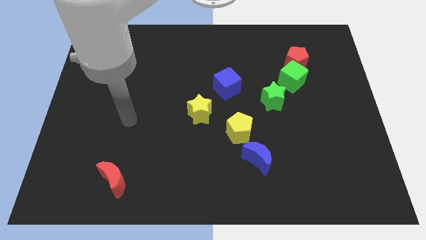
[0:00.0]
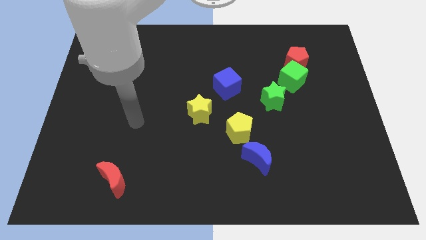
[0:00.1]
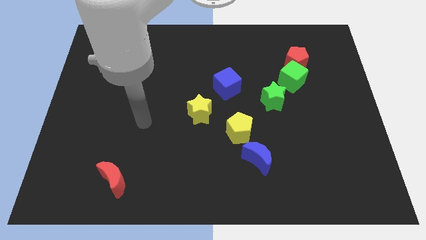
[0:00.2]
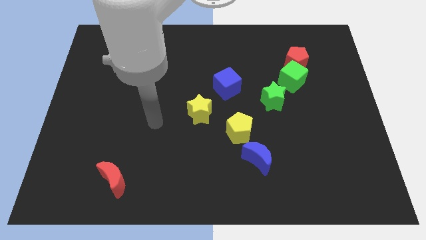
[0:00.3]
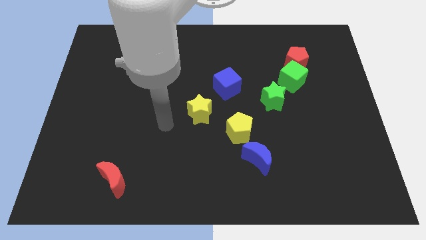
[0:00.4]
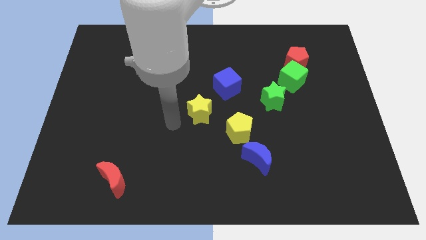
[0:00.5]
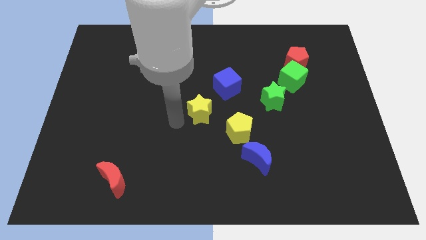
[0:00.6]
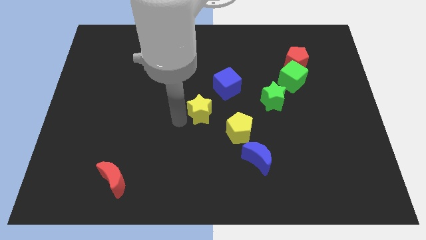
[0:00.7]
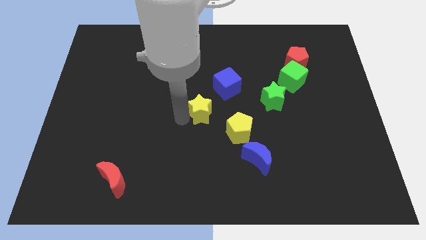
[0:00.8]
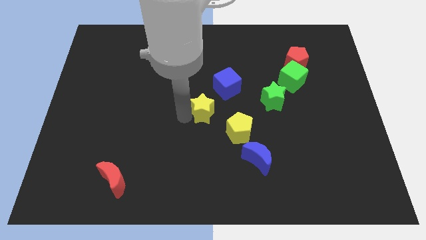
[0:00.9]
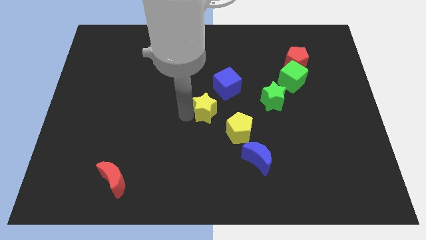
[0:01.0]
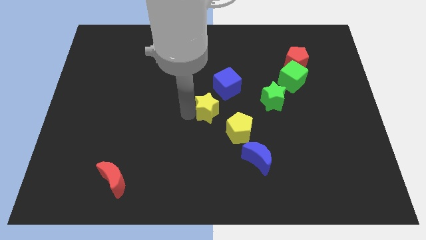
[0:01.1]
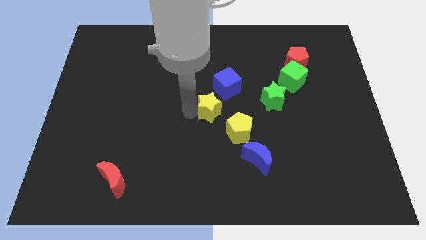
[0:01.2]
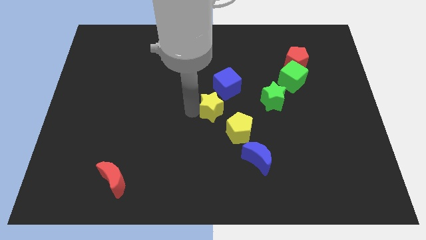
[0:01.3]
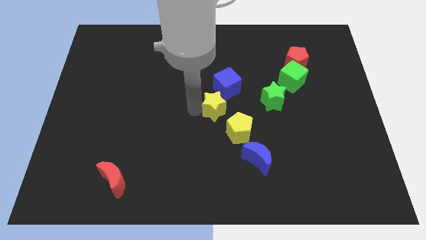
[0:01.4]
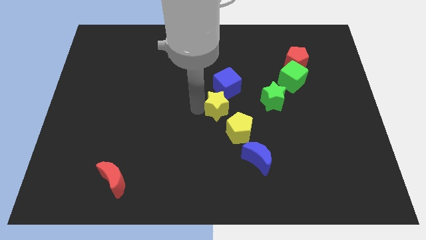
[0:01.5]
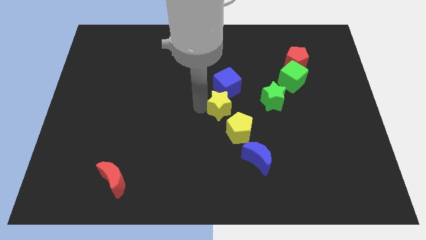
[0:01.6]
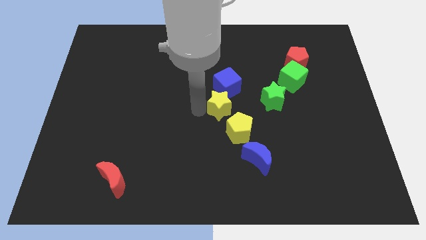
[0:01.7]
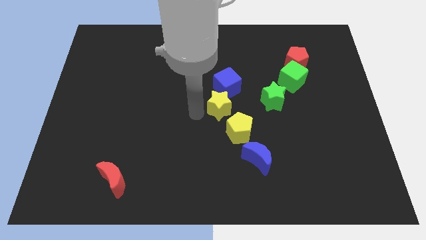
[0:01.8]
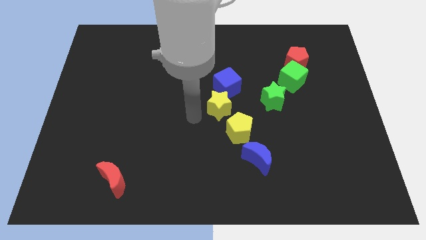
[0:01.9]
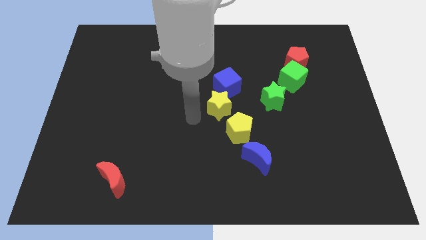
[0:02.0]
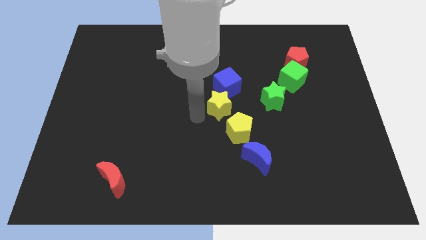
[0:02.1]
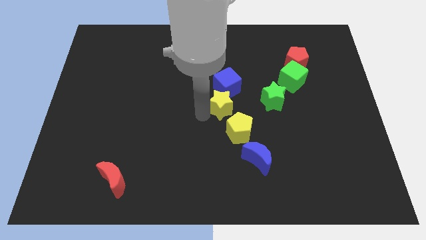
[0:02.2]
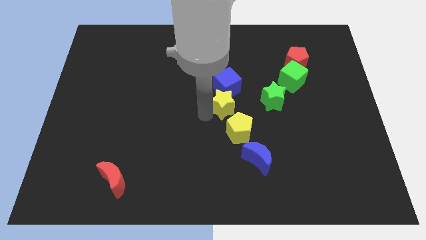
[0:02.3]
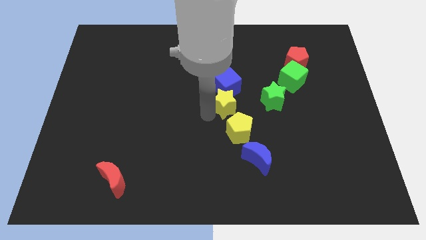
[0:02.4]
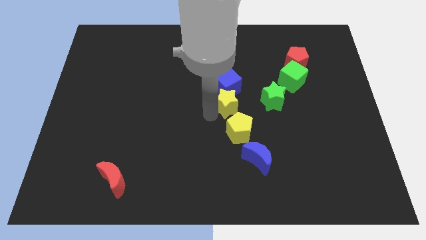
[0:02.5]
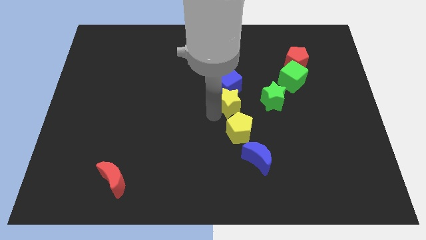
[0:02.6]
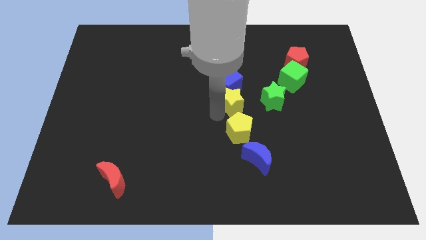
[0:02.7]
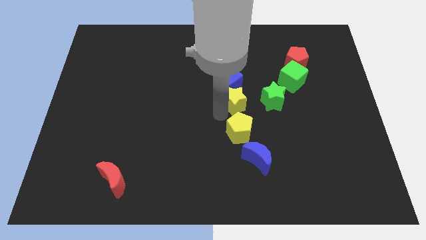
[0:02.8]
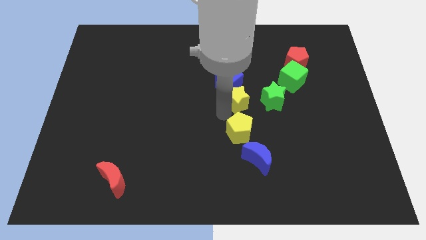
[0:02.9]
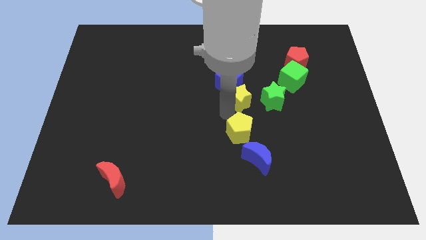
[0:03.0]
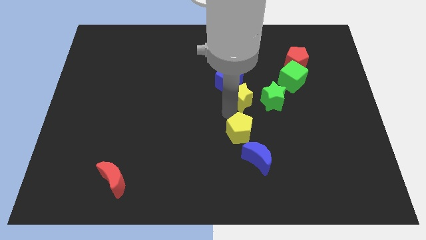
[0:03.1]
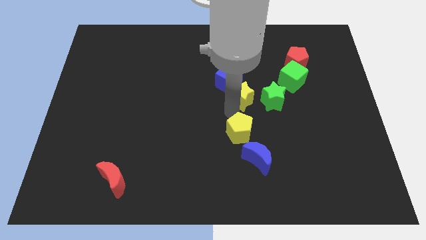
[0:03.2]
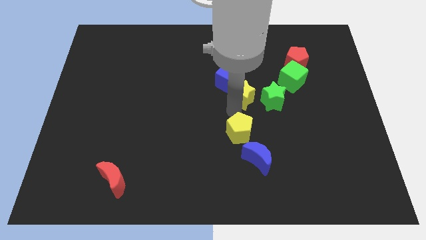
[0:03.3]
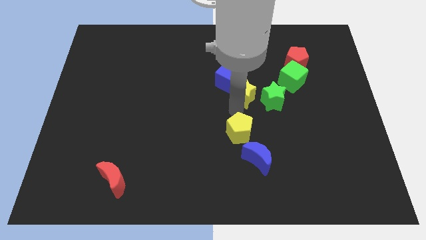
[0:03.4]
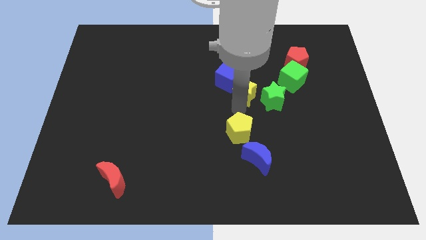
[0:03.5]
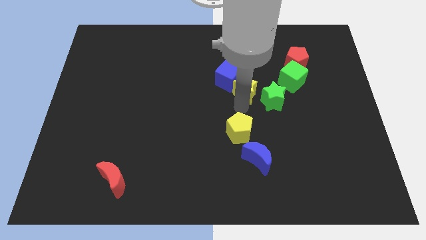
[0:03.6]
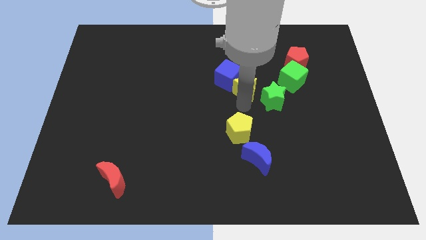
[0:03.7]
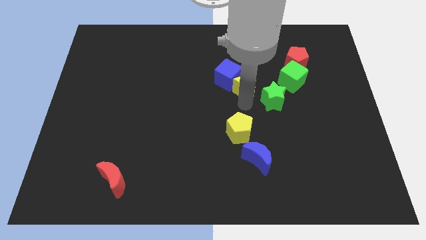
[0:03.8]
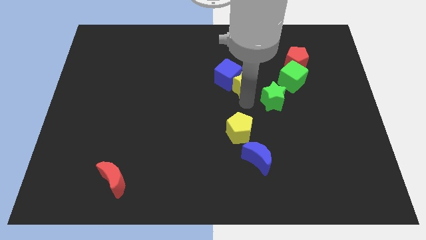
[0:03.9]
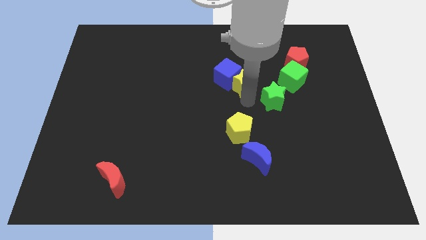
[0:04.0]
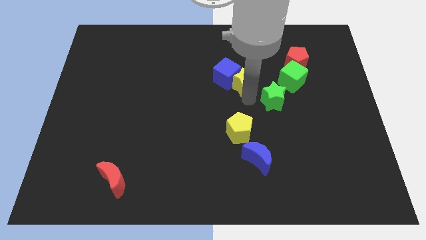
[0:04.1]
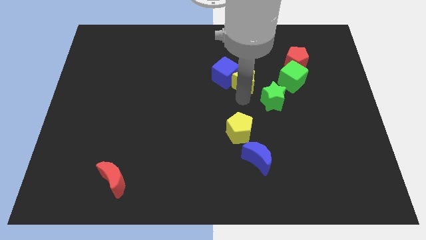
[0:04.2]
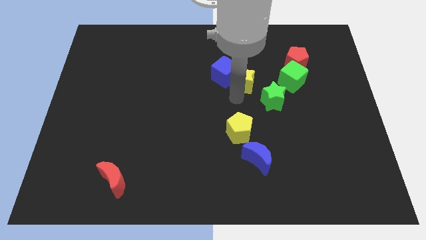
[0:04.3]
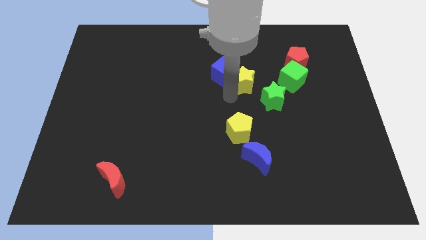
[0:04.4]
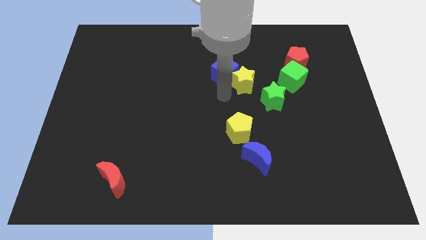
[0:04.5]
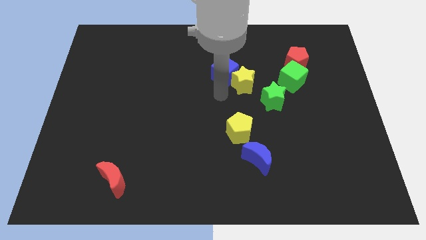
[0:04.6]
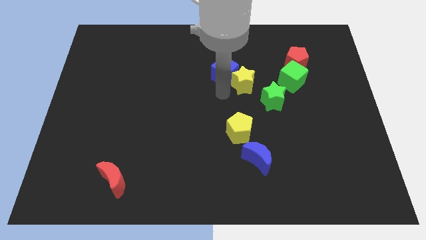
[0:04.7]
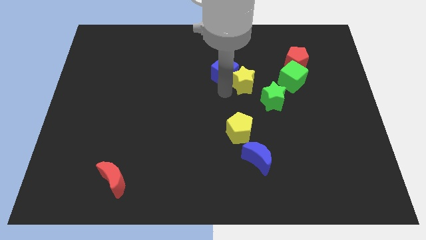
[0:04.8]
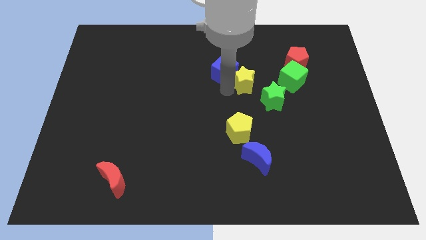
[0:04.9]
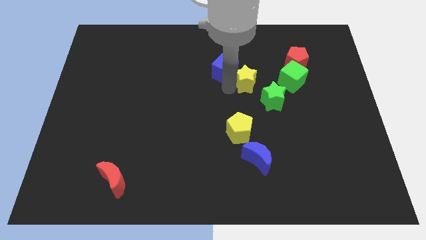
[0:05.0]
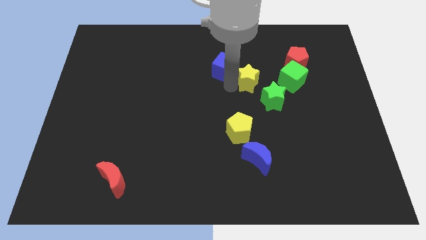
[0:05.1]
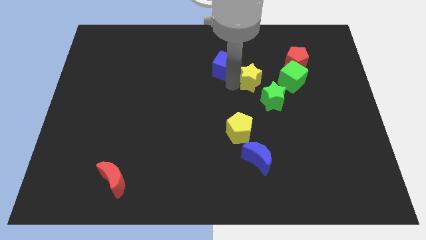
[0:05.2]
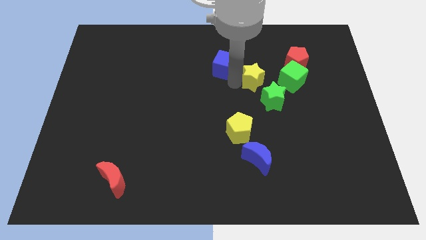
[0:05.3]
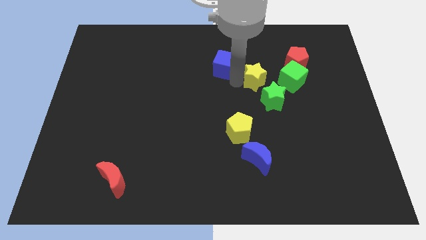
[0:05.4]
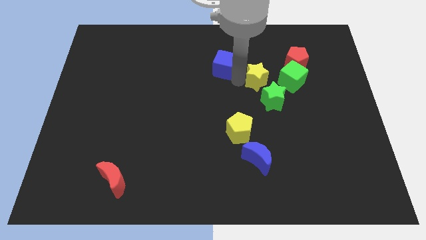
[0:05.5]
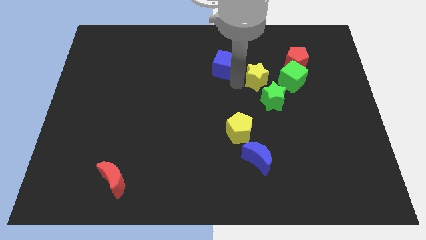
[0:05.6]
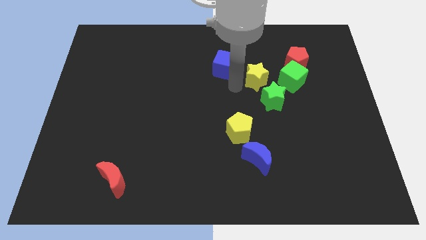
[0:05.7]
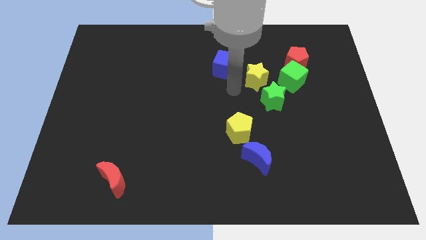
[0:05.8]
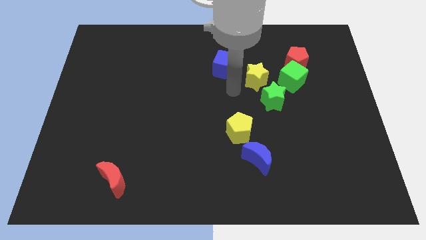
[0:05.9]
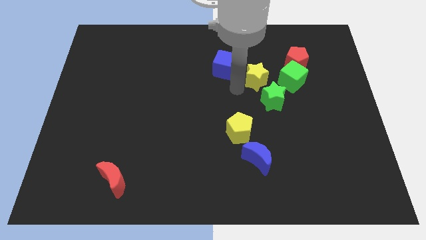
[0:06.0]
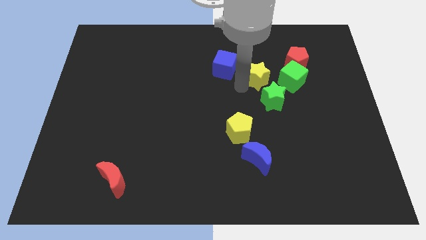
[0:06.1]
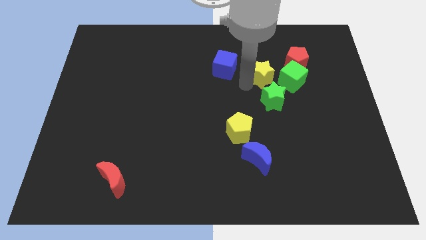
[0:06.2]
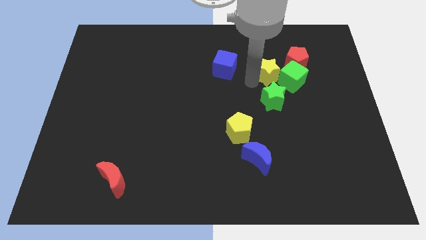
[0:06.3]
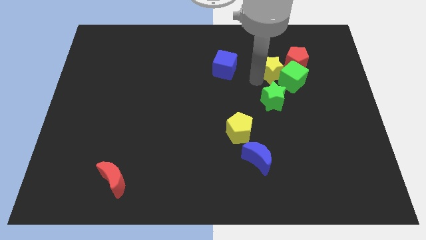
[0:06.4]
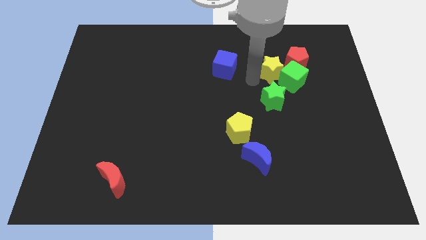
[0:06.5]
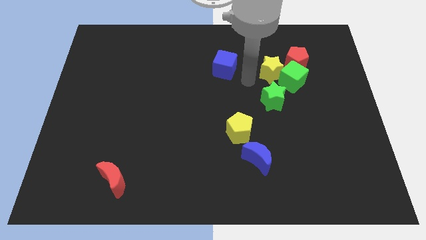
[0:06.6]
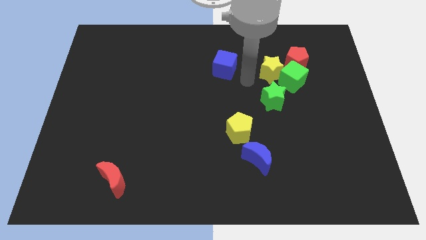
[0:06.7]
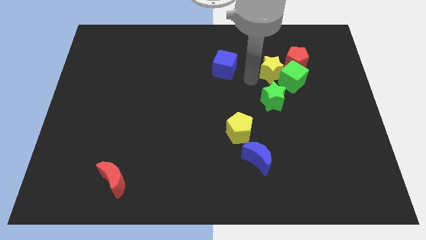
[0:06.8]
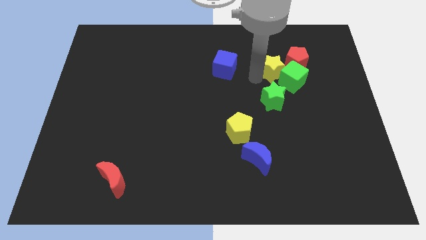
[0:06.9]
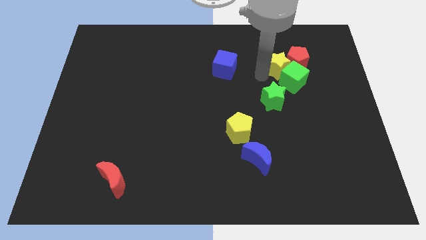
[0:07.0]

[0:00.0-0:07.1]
slide the yellow star to the red pentagon
